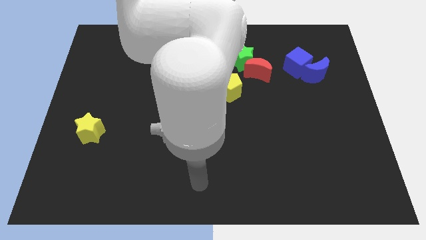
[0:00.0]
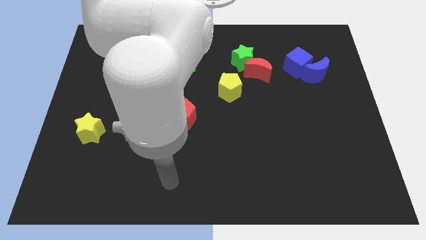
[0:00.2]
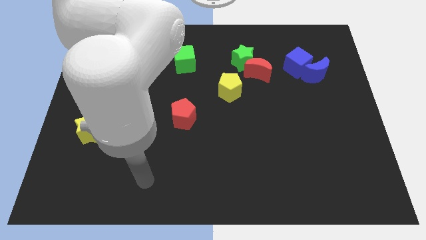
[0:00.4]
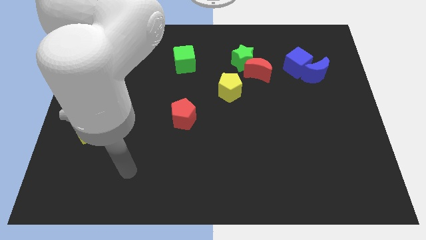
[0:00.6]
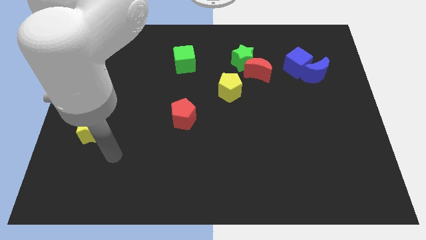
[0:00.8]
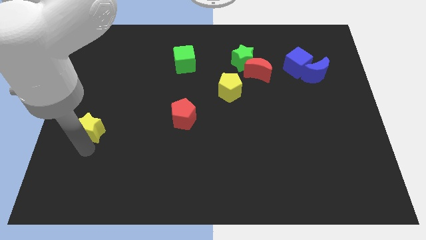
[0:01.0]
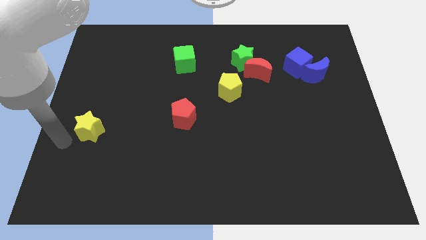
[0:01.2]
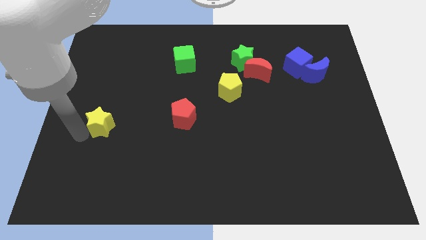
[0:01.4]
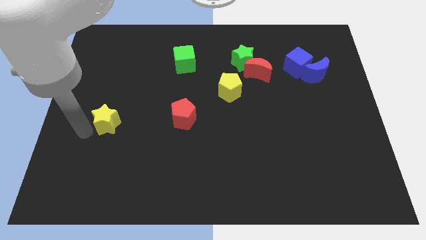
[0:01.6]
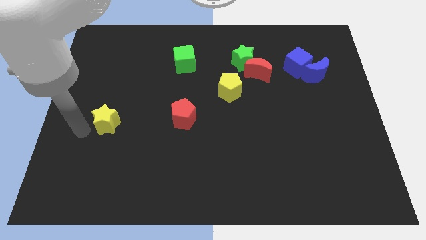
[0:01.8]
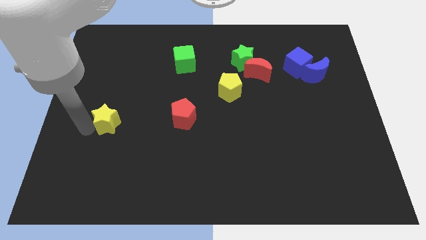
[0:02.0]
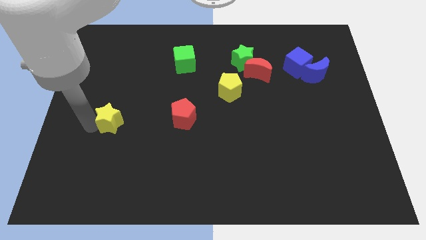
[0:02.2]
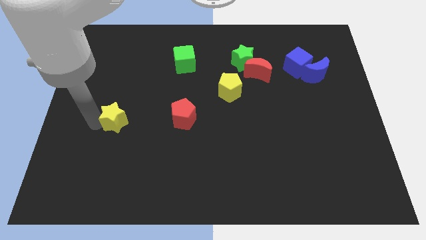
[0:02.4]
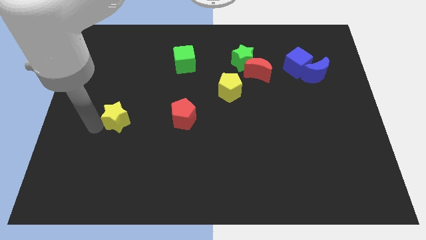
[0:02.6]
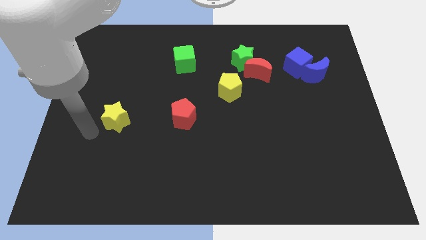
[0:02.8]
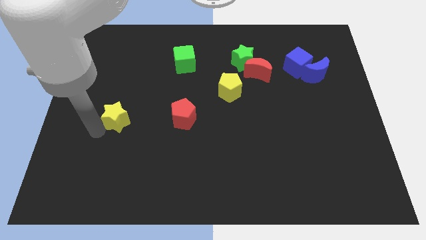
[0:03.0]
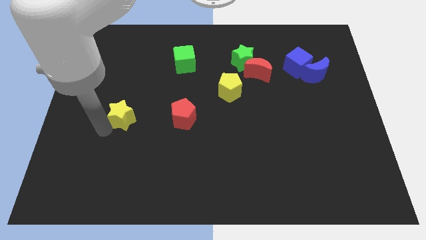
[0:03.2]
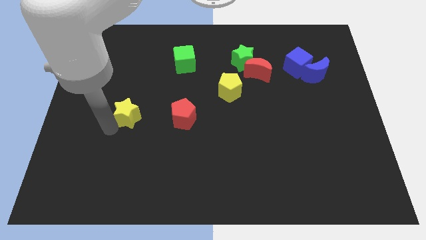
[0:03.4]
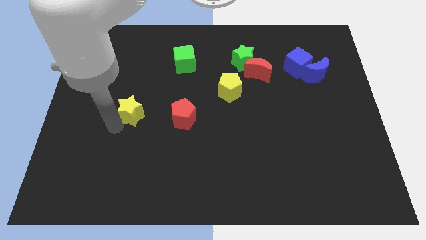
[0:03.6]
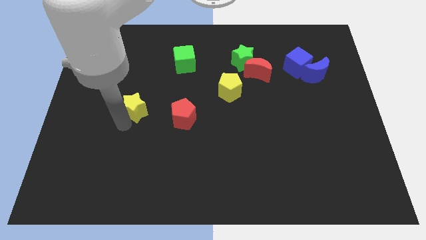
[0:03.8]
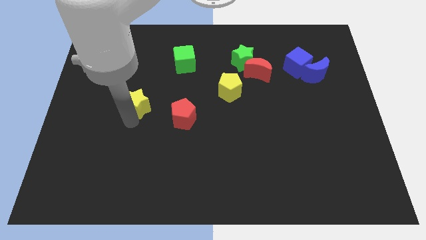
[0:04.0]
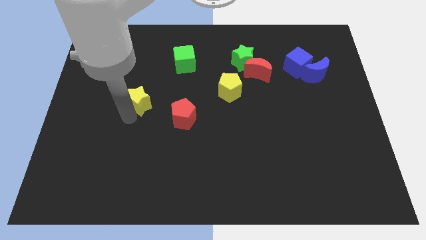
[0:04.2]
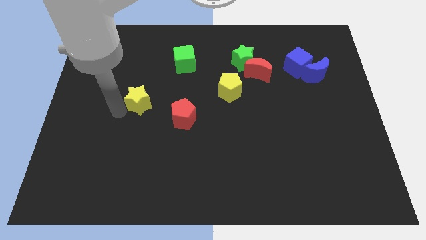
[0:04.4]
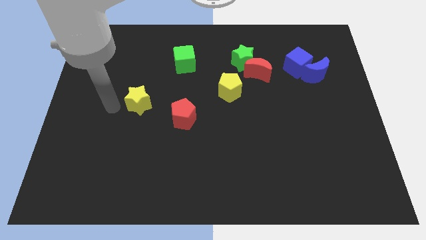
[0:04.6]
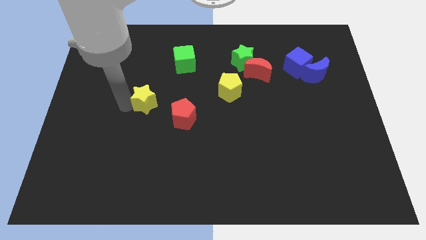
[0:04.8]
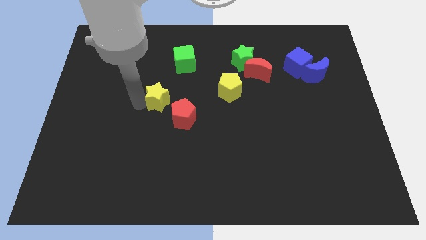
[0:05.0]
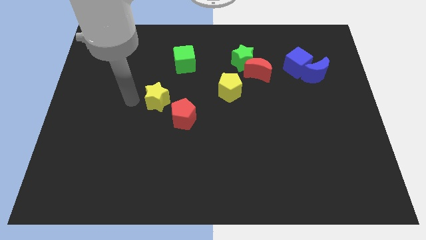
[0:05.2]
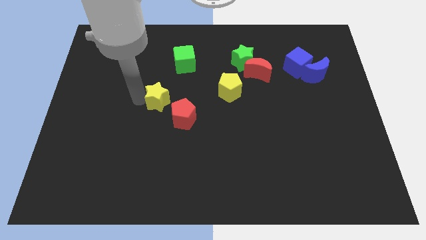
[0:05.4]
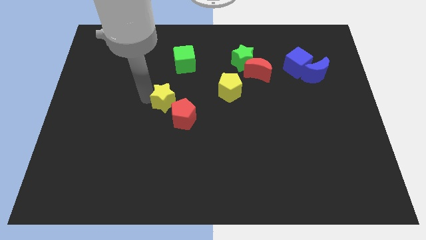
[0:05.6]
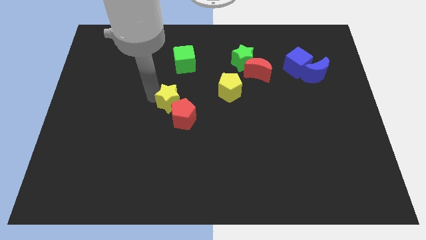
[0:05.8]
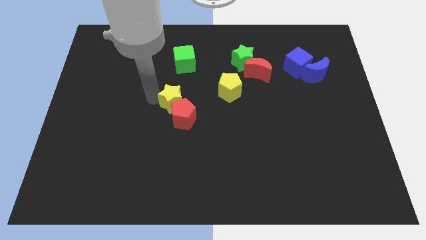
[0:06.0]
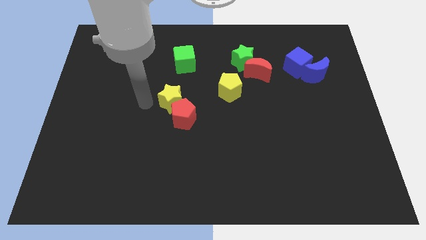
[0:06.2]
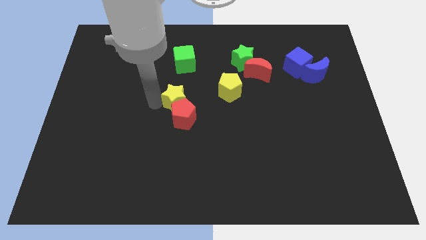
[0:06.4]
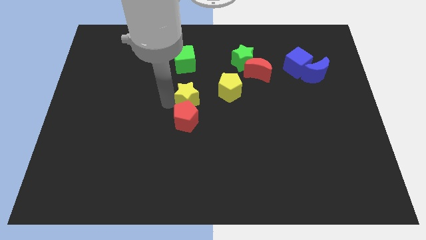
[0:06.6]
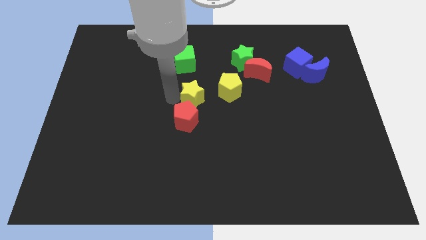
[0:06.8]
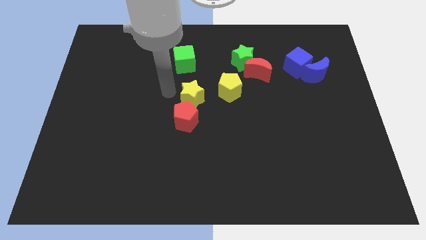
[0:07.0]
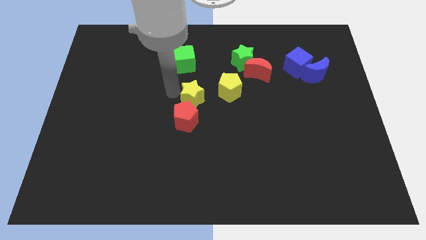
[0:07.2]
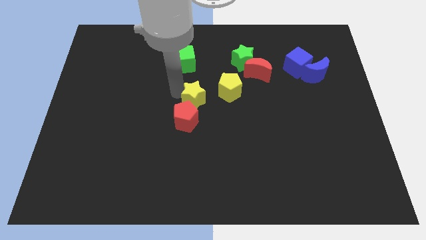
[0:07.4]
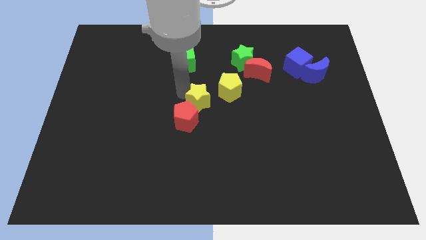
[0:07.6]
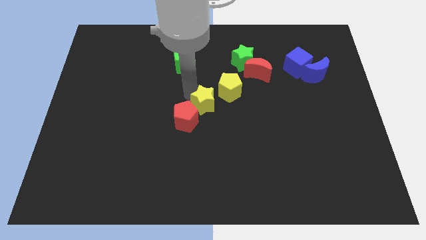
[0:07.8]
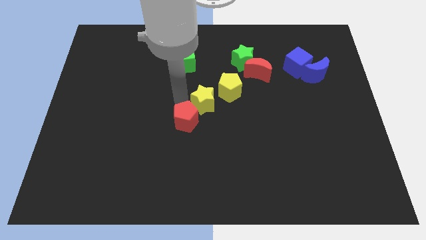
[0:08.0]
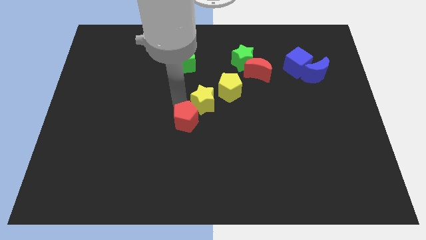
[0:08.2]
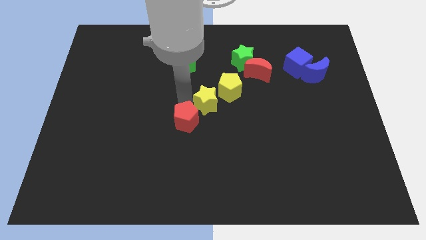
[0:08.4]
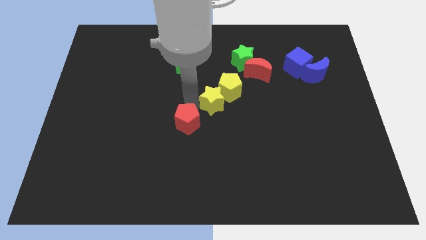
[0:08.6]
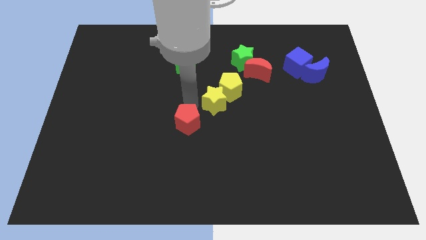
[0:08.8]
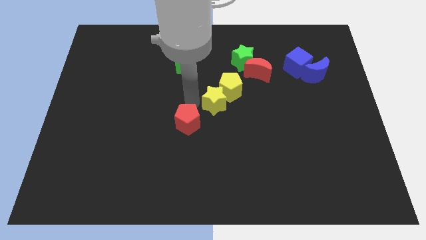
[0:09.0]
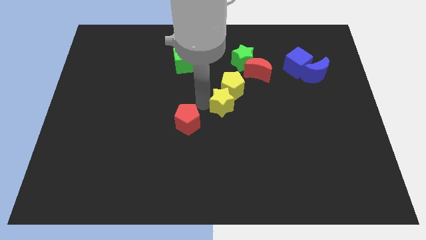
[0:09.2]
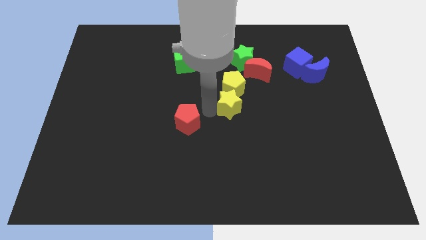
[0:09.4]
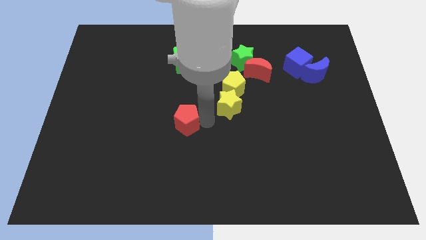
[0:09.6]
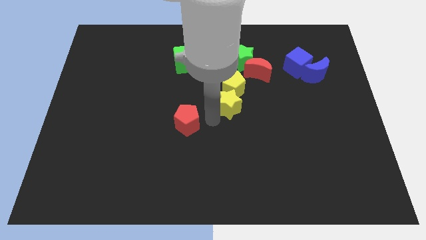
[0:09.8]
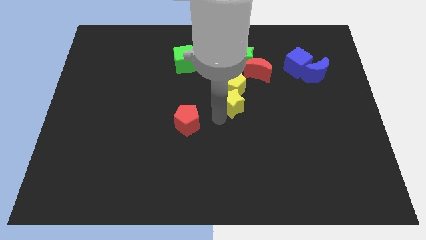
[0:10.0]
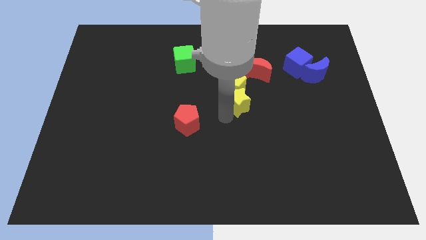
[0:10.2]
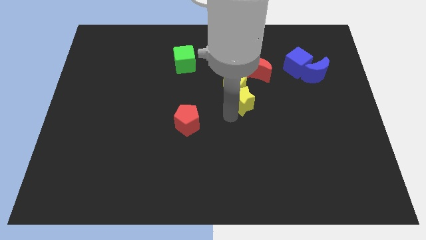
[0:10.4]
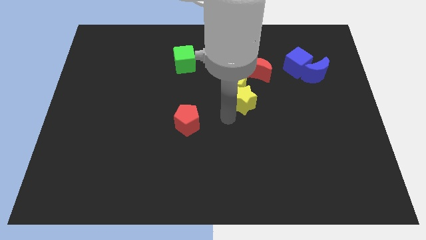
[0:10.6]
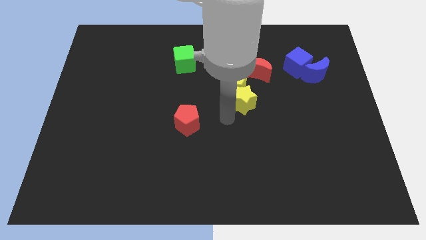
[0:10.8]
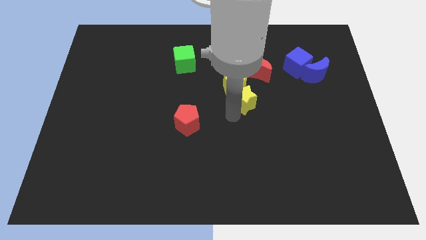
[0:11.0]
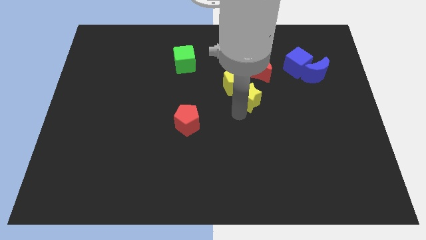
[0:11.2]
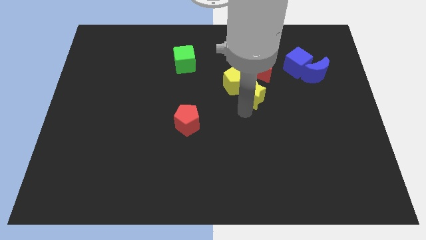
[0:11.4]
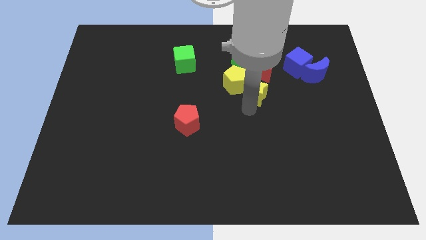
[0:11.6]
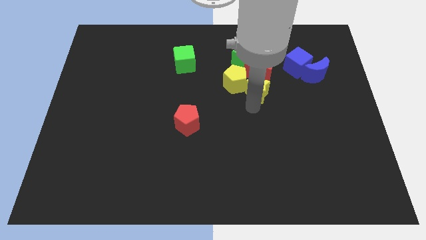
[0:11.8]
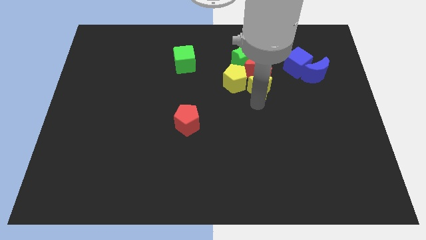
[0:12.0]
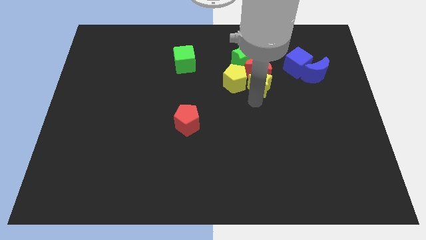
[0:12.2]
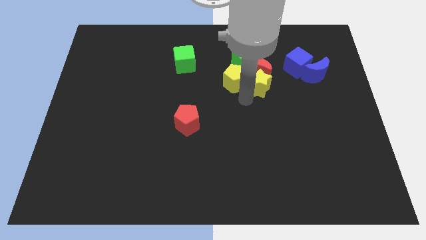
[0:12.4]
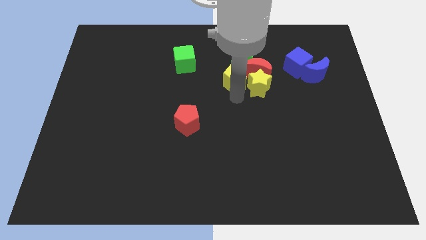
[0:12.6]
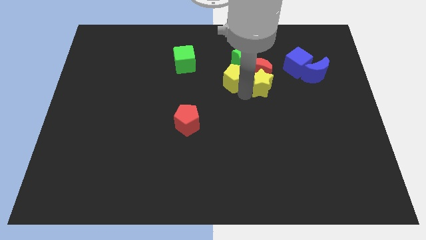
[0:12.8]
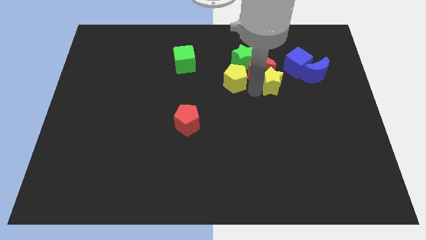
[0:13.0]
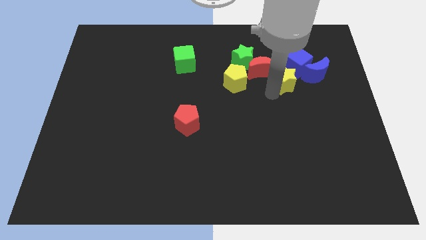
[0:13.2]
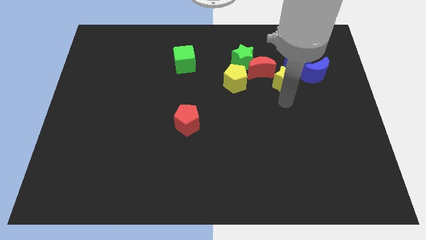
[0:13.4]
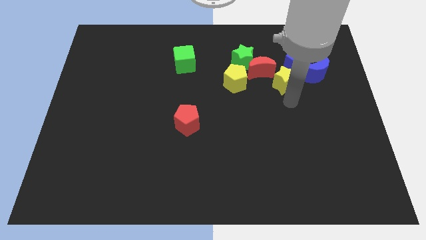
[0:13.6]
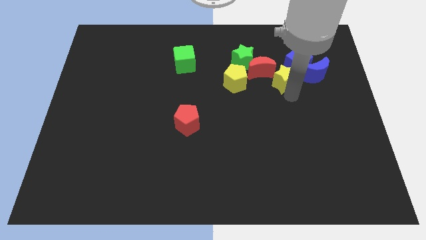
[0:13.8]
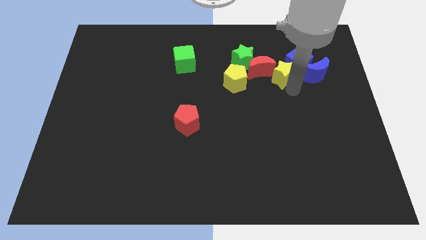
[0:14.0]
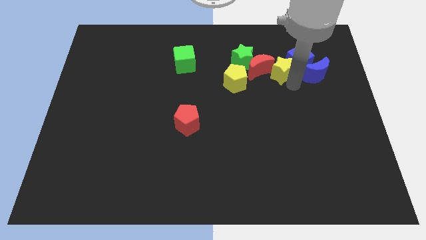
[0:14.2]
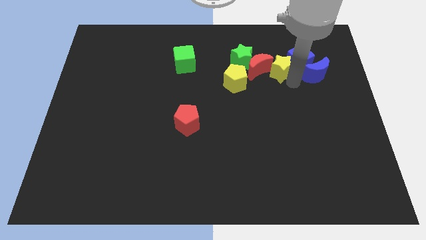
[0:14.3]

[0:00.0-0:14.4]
slide the yellow star to the top right of the red moon

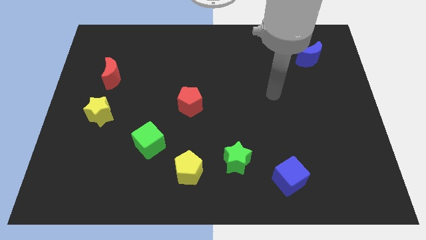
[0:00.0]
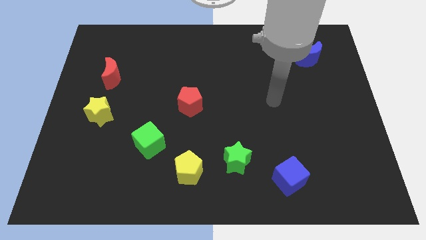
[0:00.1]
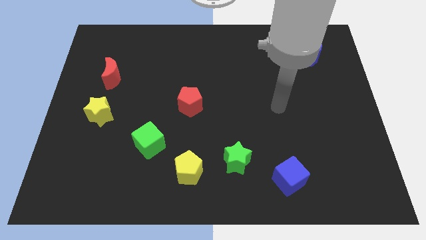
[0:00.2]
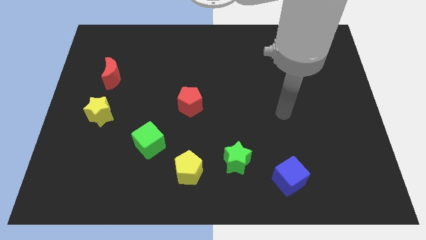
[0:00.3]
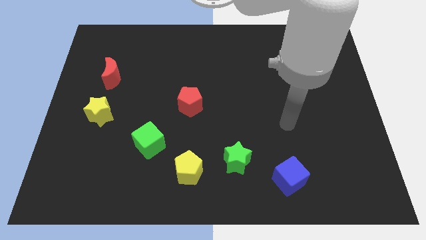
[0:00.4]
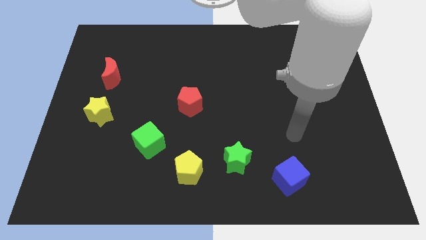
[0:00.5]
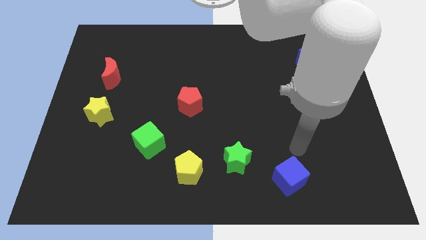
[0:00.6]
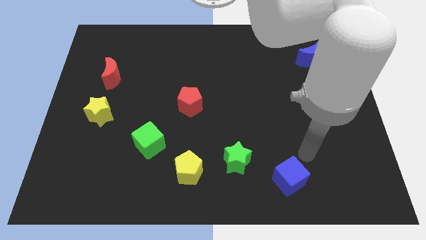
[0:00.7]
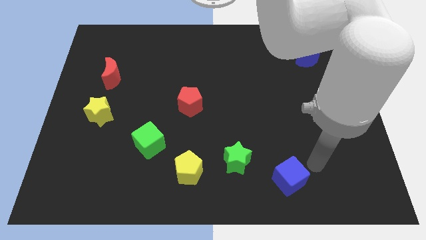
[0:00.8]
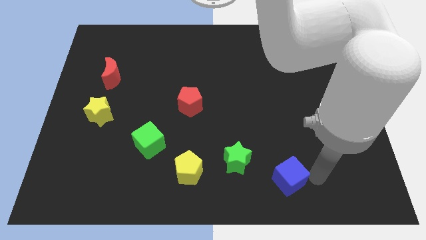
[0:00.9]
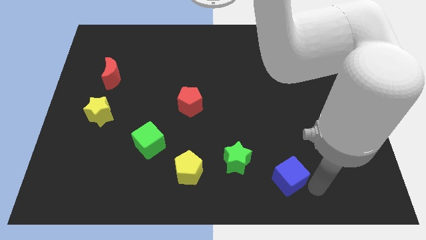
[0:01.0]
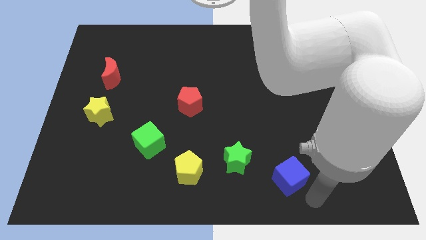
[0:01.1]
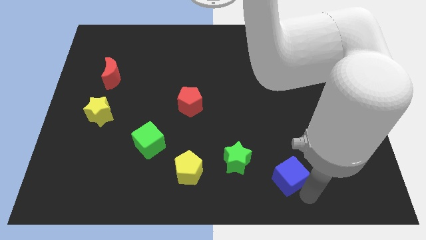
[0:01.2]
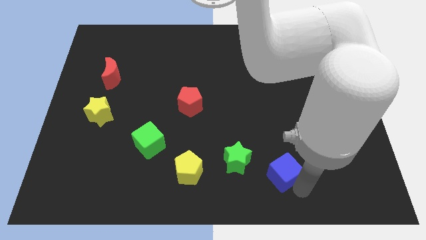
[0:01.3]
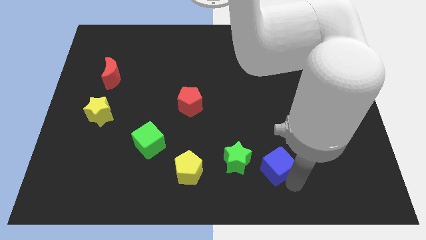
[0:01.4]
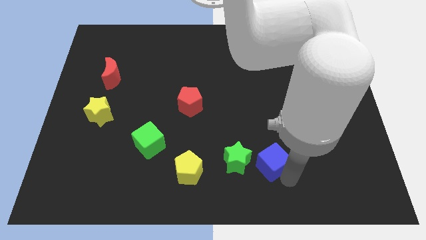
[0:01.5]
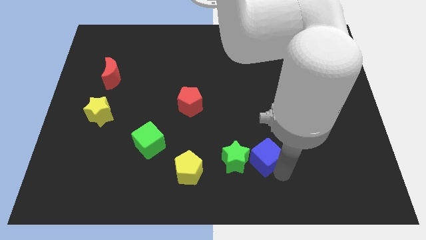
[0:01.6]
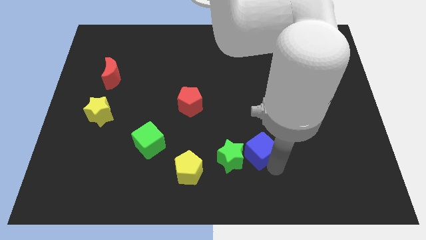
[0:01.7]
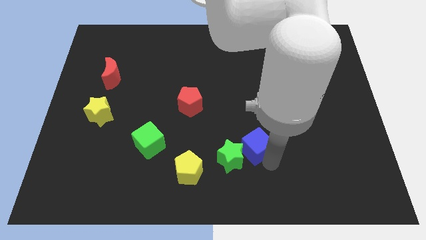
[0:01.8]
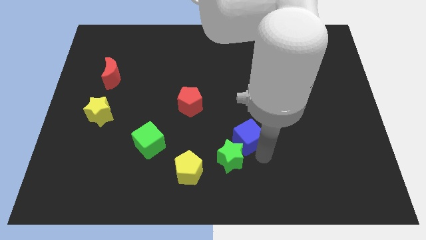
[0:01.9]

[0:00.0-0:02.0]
move the blue cube to the top side of the green star
